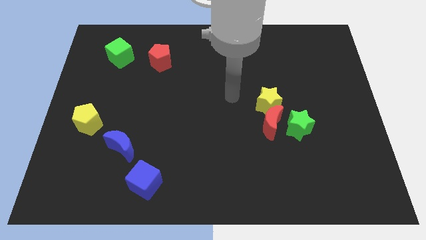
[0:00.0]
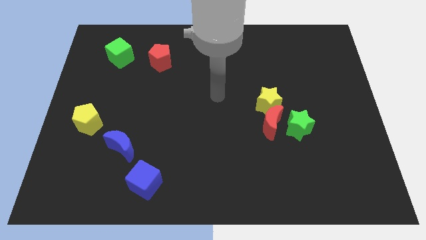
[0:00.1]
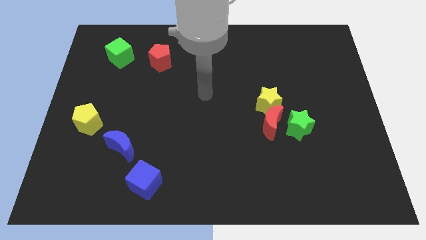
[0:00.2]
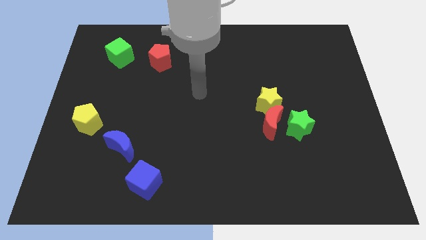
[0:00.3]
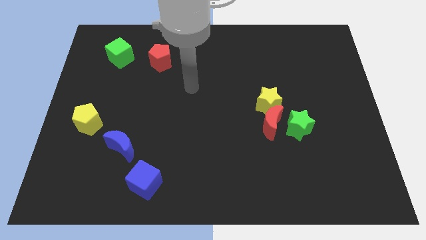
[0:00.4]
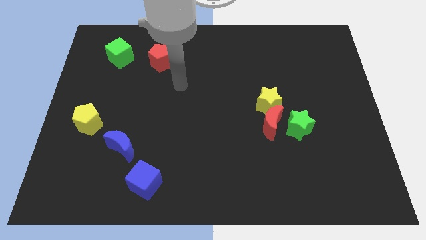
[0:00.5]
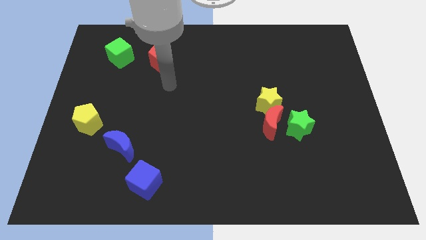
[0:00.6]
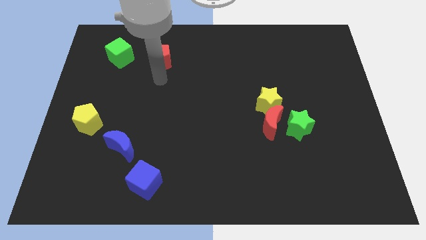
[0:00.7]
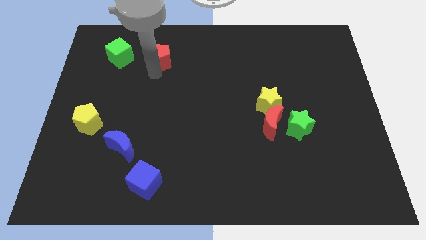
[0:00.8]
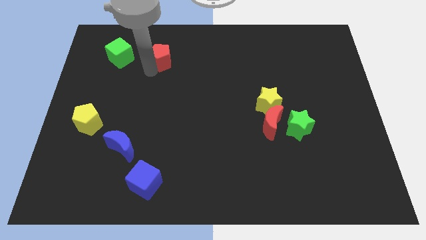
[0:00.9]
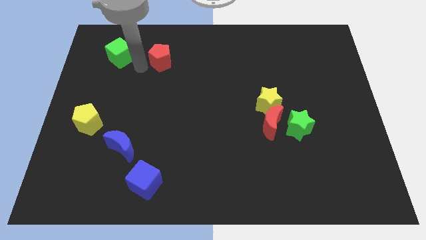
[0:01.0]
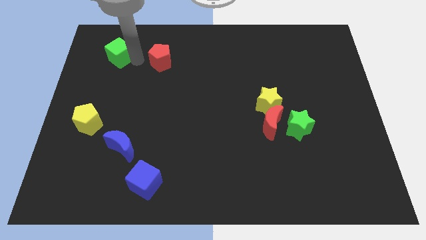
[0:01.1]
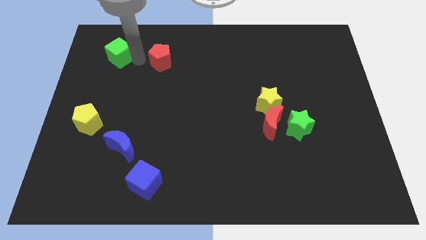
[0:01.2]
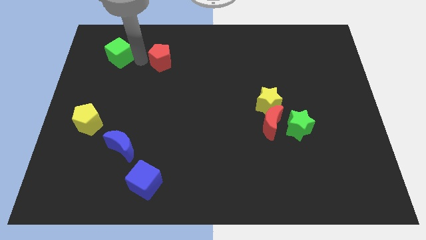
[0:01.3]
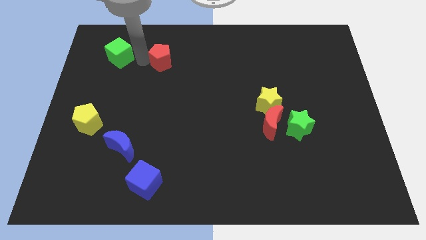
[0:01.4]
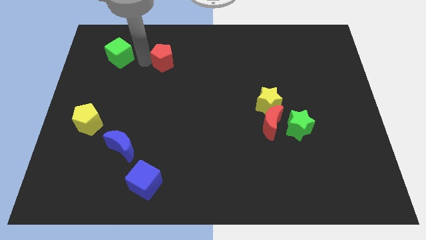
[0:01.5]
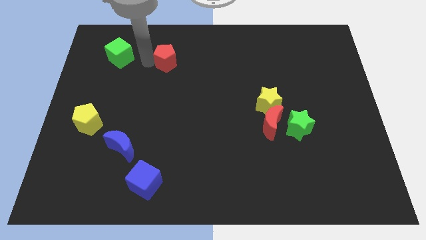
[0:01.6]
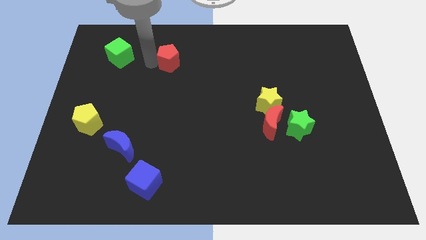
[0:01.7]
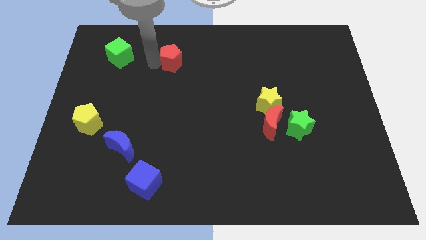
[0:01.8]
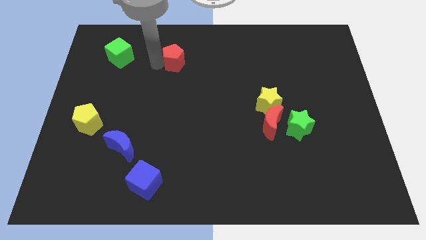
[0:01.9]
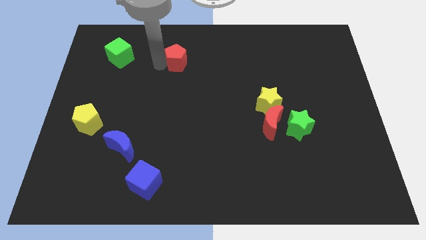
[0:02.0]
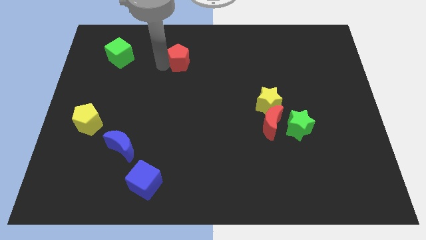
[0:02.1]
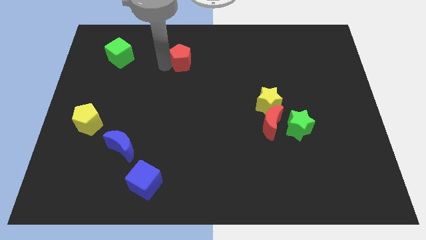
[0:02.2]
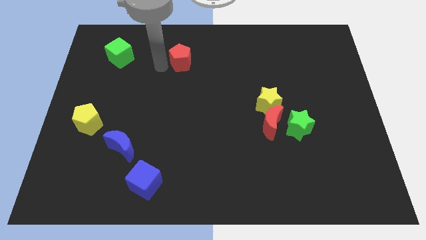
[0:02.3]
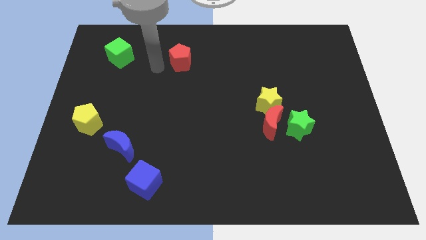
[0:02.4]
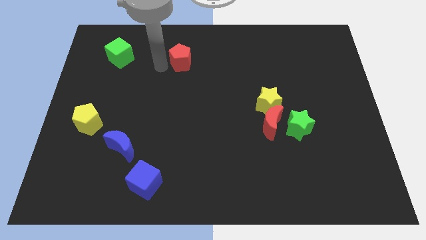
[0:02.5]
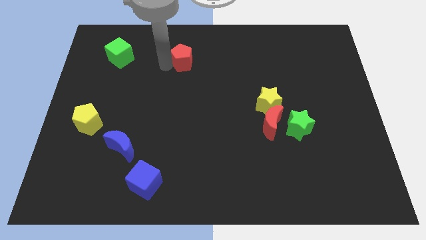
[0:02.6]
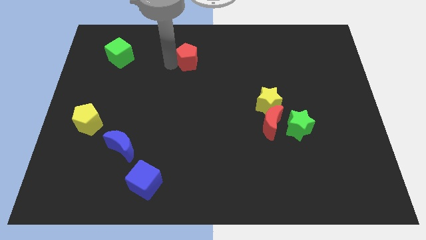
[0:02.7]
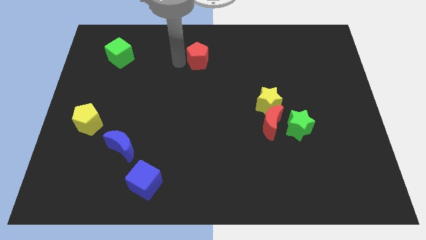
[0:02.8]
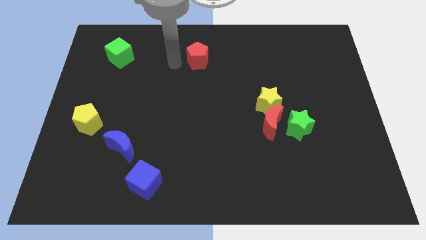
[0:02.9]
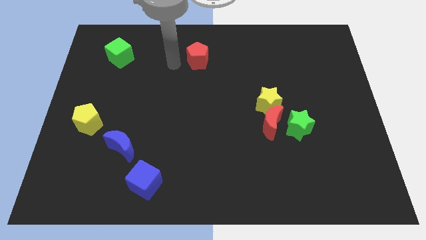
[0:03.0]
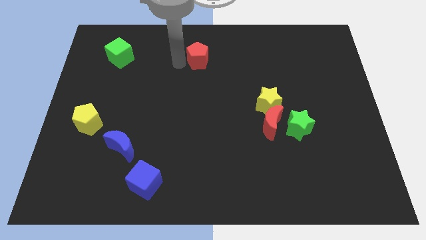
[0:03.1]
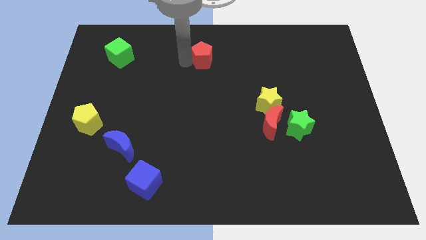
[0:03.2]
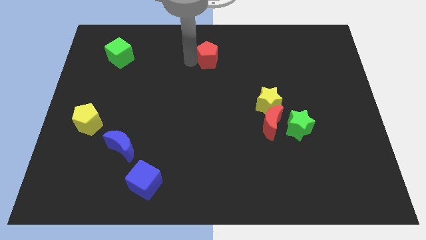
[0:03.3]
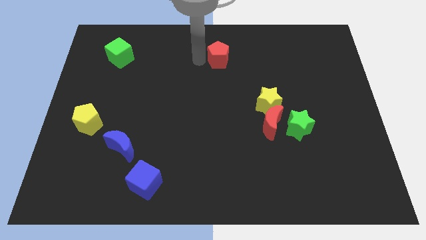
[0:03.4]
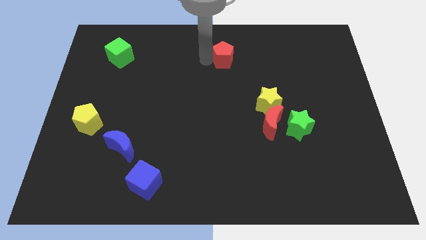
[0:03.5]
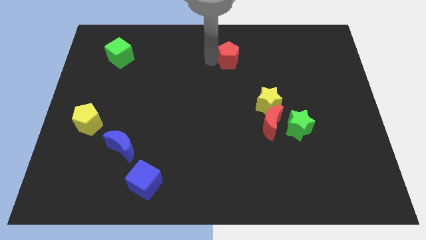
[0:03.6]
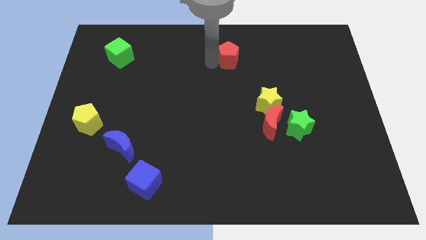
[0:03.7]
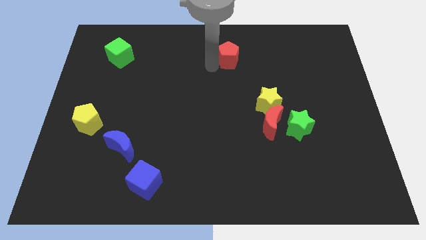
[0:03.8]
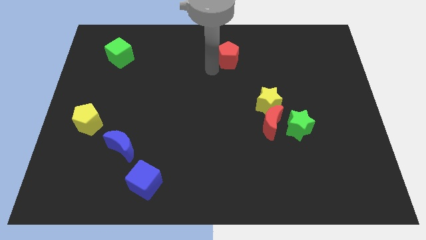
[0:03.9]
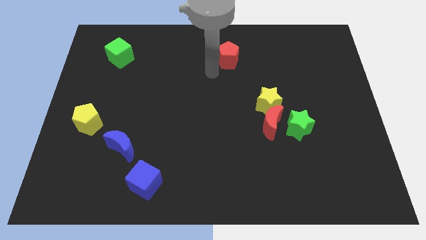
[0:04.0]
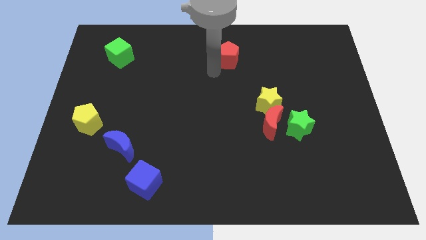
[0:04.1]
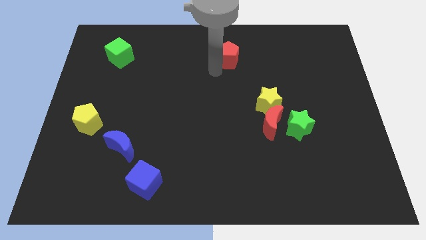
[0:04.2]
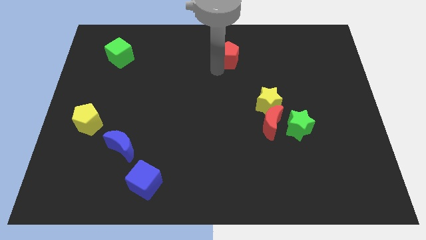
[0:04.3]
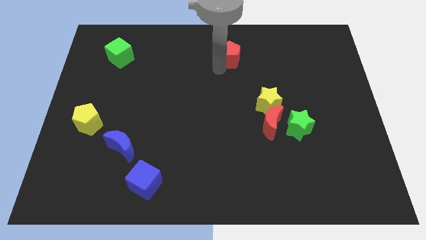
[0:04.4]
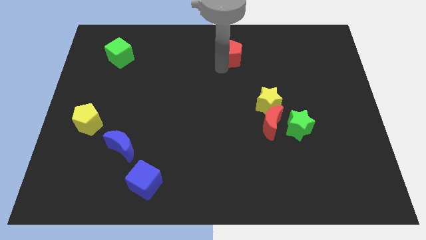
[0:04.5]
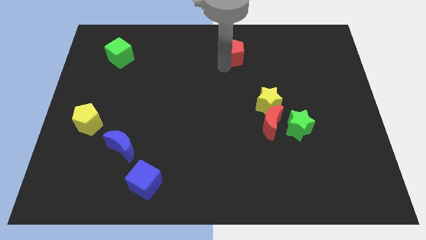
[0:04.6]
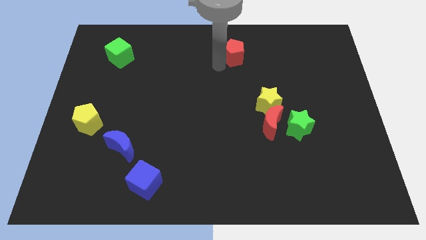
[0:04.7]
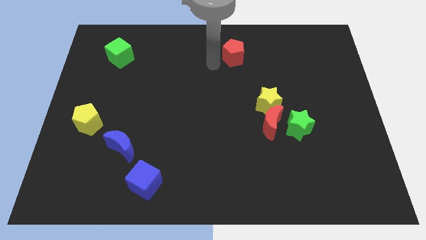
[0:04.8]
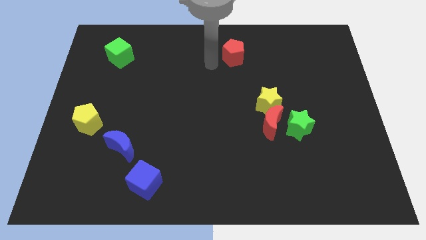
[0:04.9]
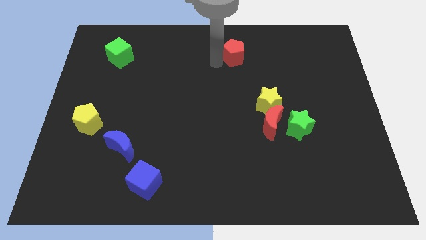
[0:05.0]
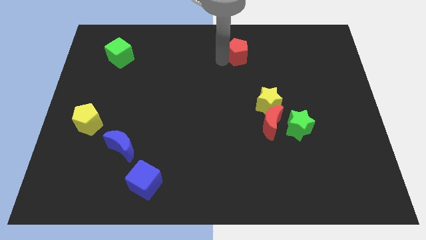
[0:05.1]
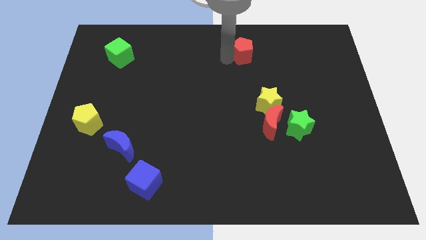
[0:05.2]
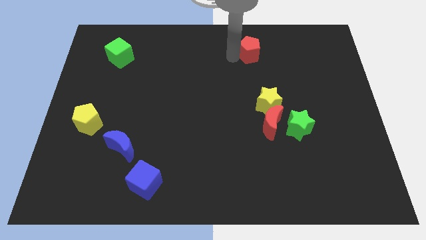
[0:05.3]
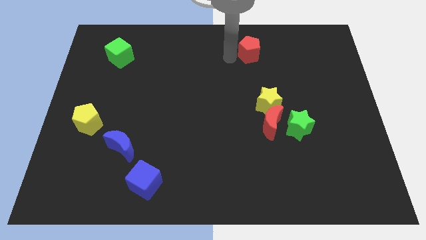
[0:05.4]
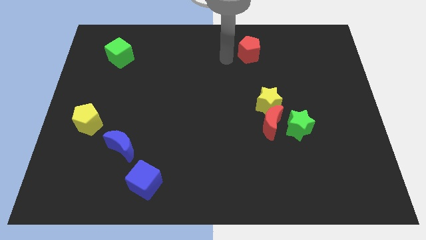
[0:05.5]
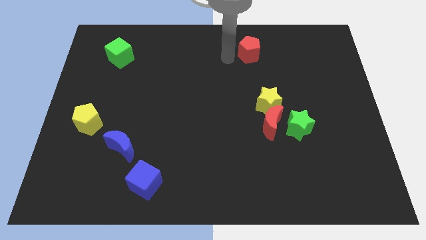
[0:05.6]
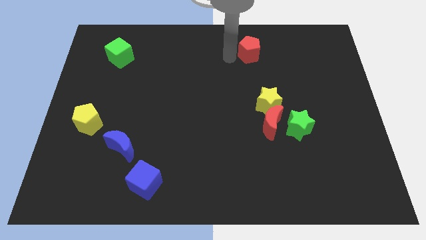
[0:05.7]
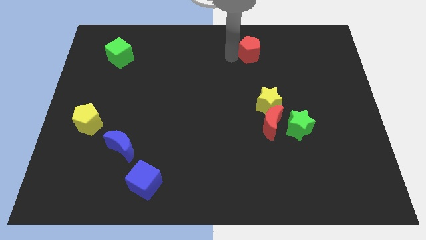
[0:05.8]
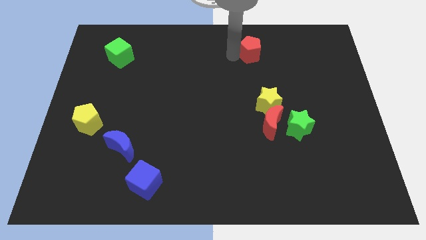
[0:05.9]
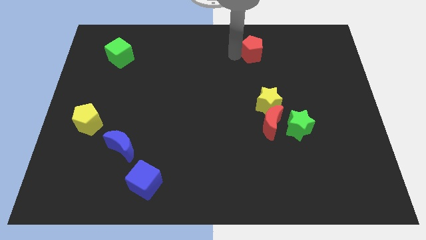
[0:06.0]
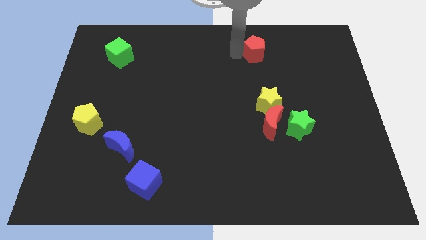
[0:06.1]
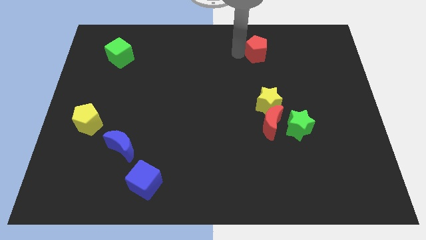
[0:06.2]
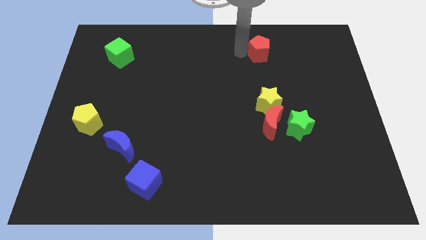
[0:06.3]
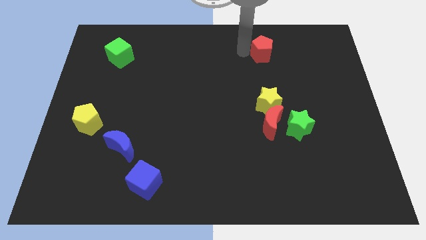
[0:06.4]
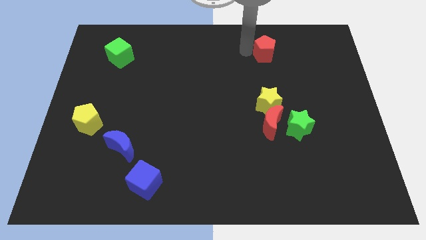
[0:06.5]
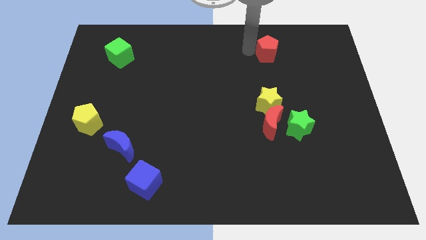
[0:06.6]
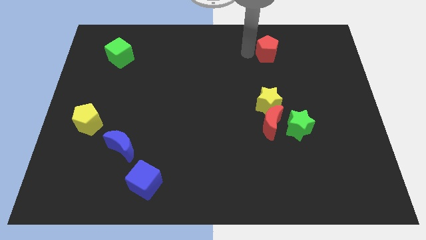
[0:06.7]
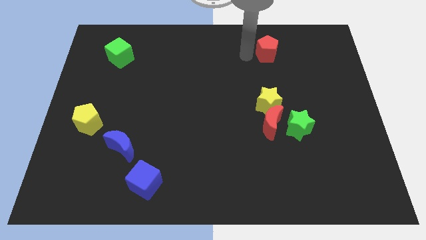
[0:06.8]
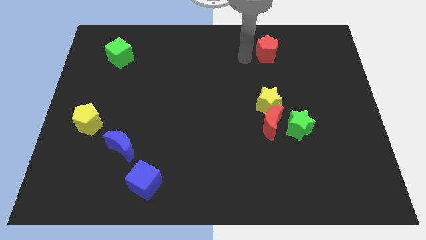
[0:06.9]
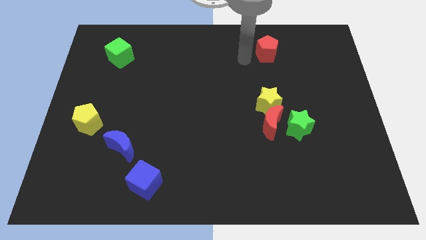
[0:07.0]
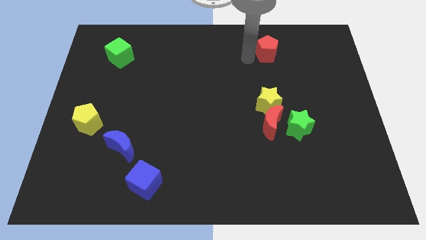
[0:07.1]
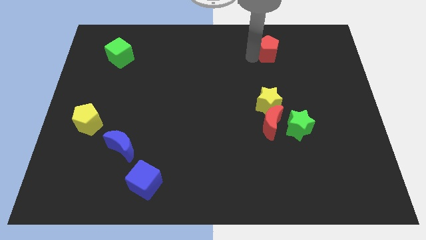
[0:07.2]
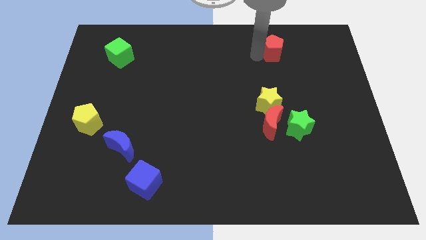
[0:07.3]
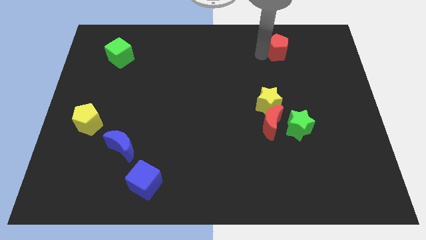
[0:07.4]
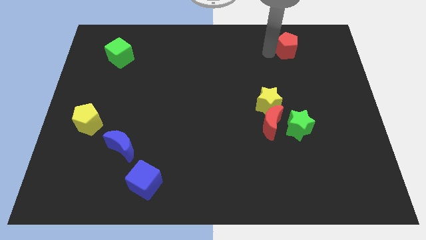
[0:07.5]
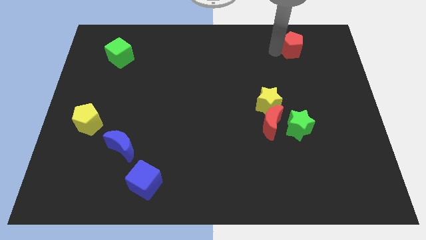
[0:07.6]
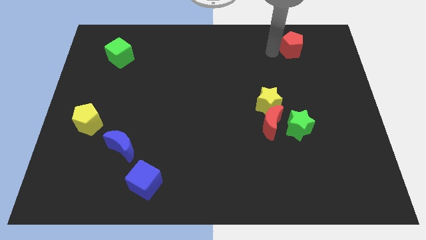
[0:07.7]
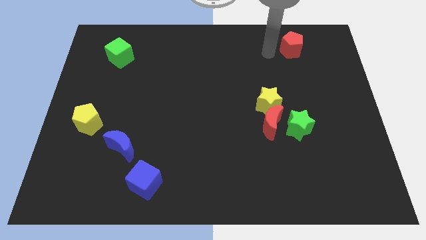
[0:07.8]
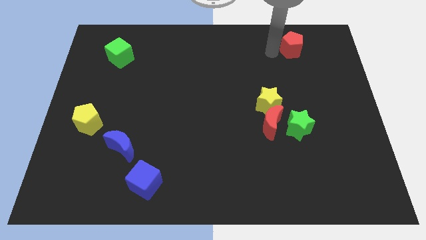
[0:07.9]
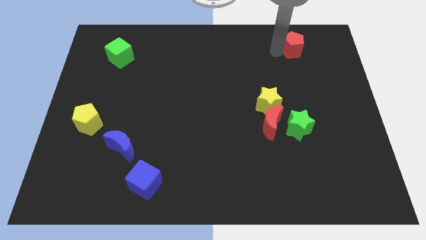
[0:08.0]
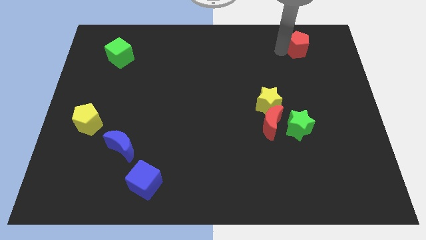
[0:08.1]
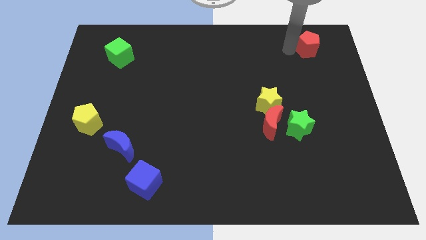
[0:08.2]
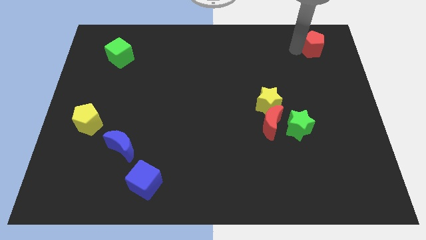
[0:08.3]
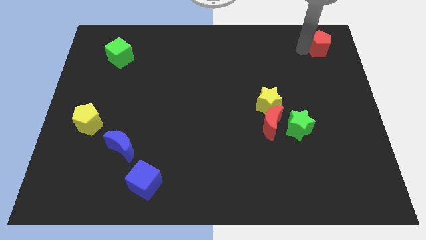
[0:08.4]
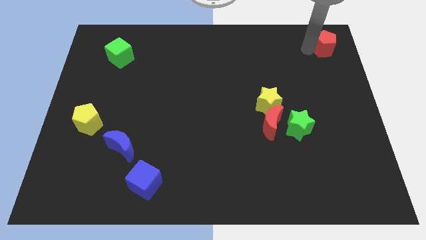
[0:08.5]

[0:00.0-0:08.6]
slide the red pentagon to the top right corner
